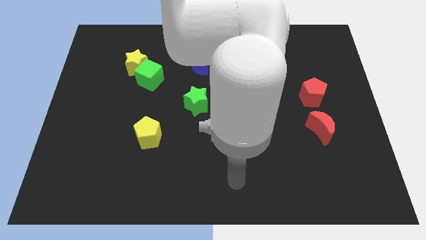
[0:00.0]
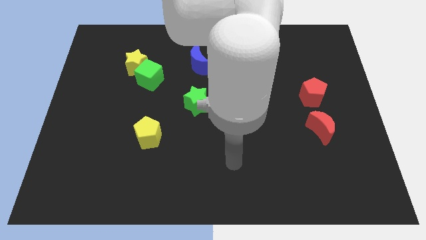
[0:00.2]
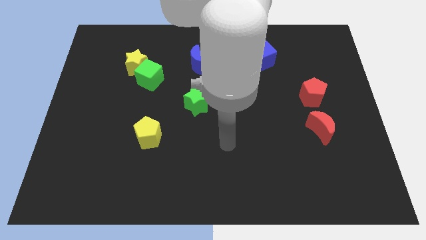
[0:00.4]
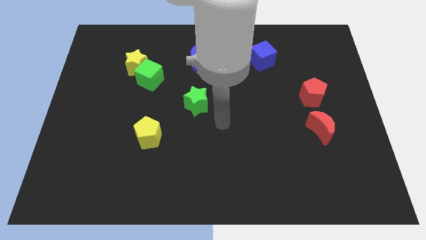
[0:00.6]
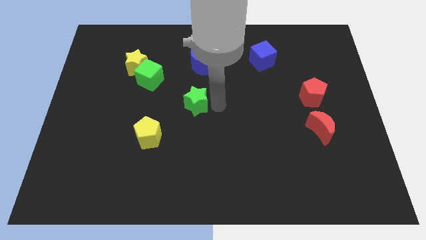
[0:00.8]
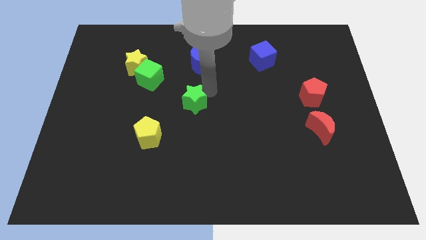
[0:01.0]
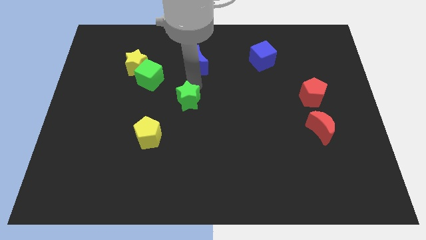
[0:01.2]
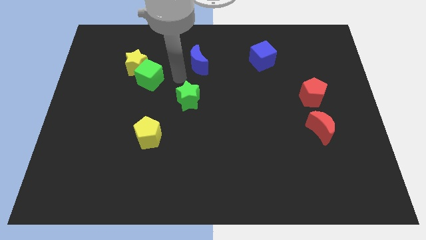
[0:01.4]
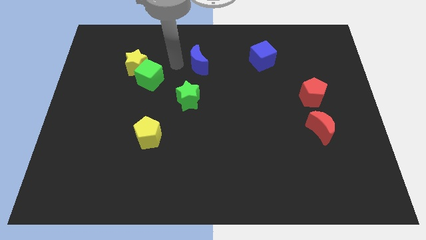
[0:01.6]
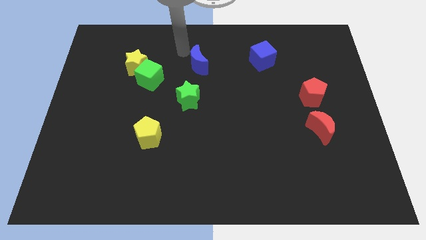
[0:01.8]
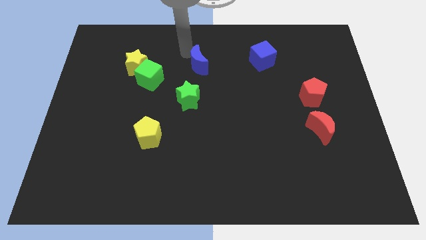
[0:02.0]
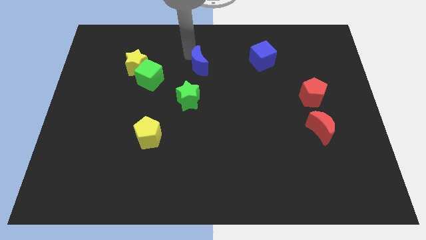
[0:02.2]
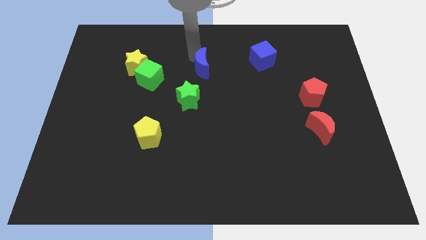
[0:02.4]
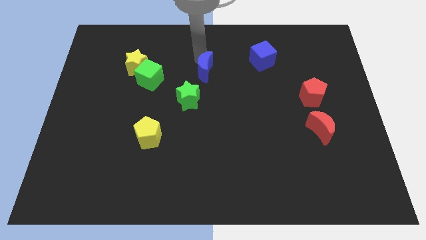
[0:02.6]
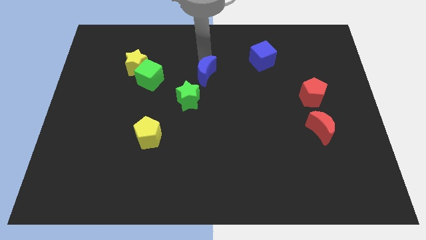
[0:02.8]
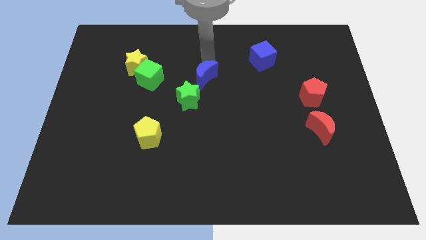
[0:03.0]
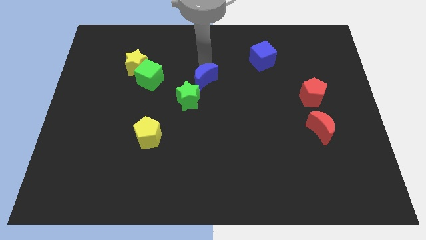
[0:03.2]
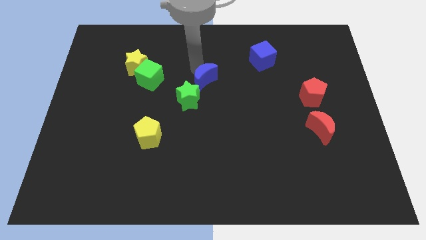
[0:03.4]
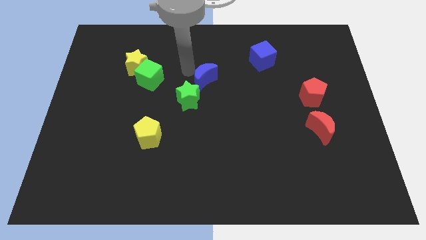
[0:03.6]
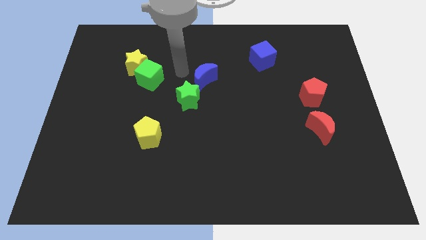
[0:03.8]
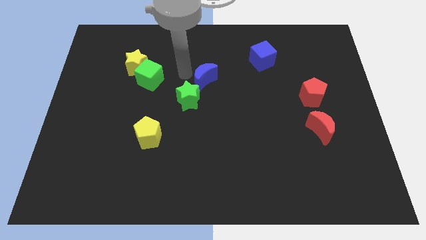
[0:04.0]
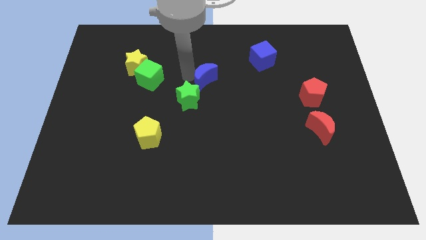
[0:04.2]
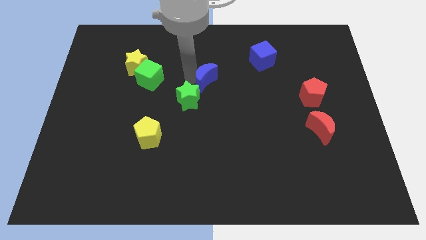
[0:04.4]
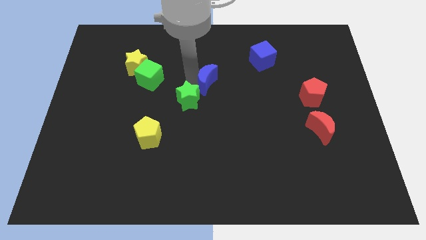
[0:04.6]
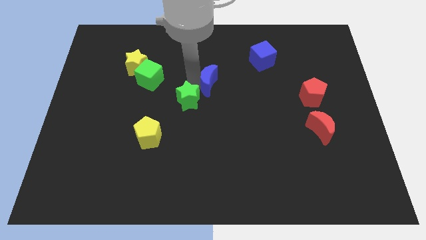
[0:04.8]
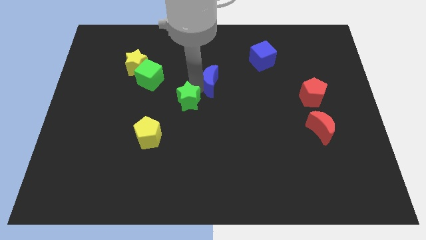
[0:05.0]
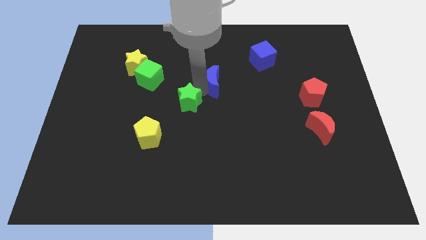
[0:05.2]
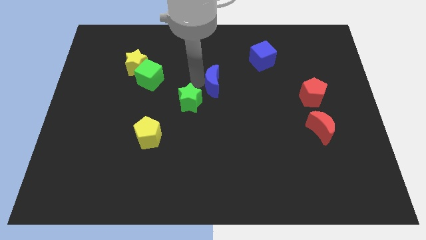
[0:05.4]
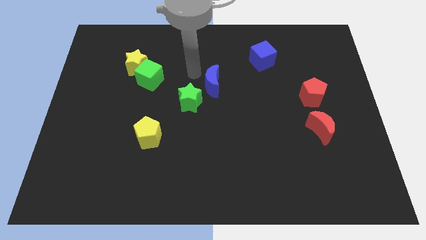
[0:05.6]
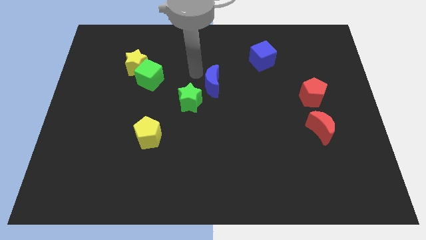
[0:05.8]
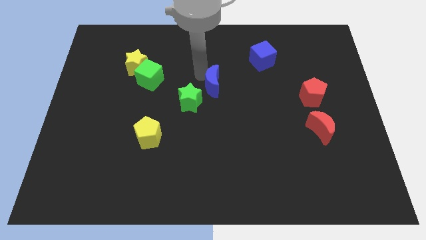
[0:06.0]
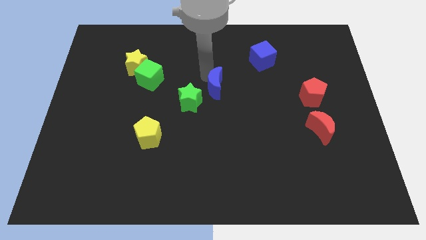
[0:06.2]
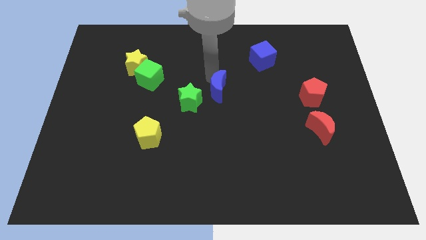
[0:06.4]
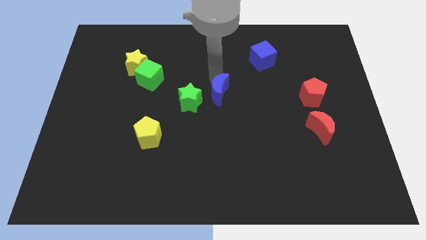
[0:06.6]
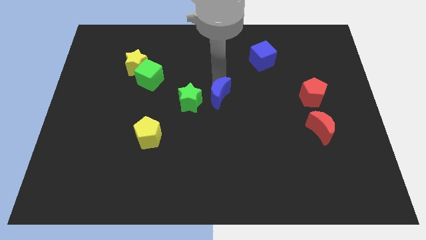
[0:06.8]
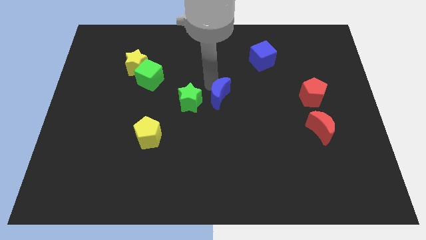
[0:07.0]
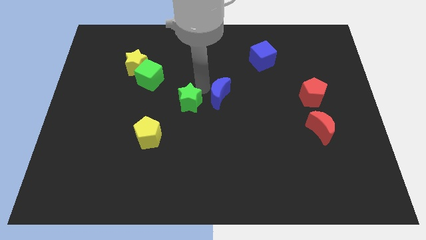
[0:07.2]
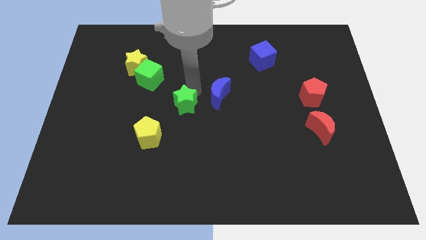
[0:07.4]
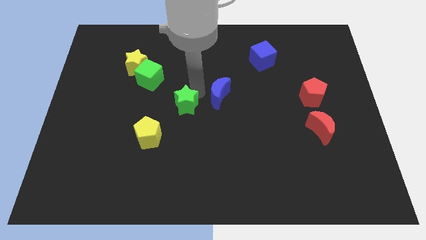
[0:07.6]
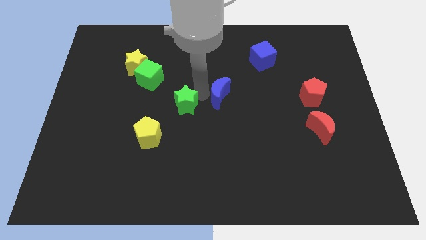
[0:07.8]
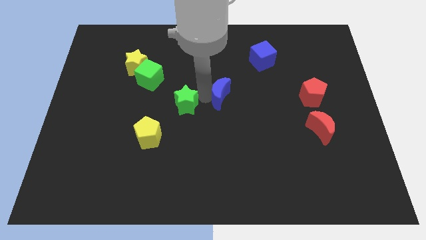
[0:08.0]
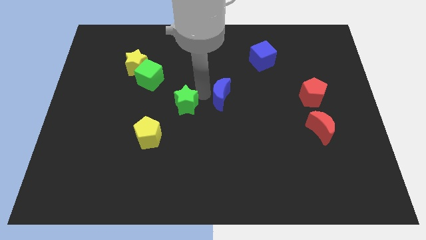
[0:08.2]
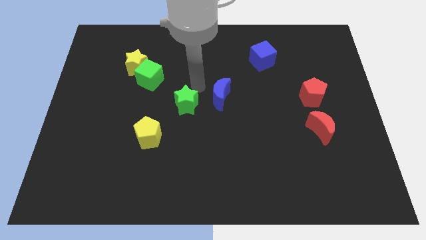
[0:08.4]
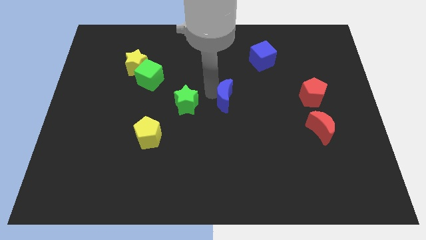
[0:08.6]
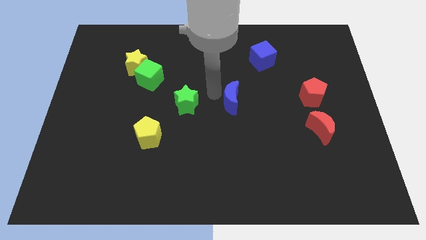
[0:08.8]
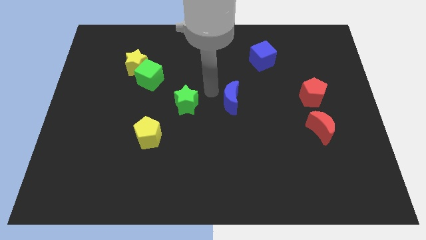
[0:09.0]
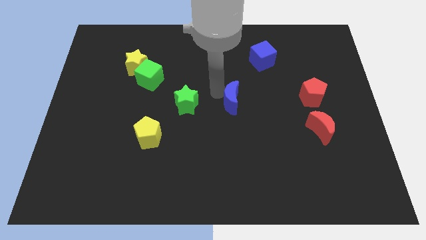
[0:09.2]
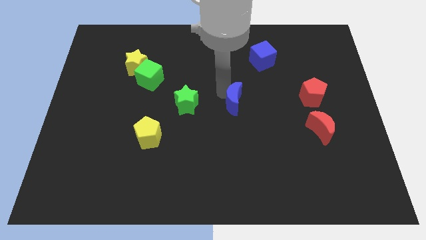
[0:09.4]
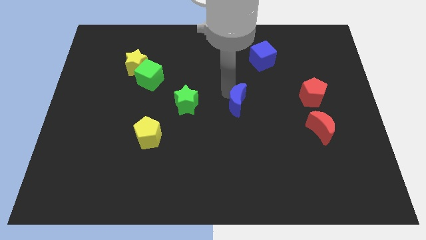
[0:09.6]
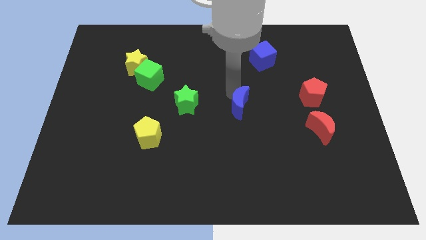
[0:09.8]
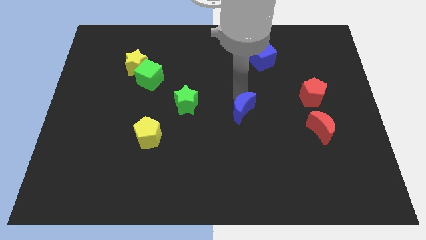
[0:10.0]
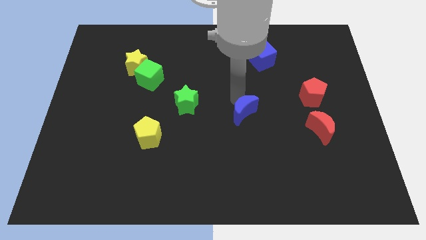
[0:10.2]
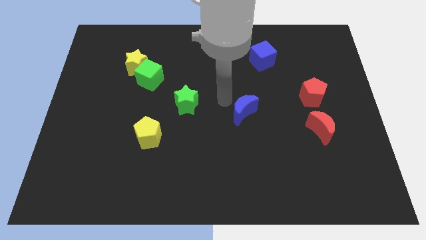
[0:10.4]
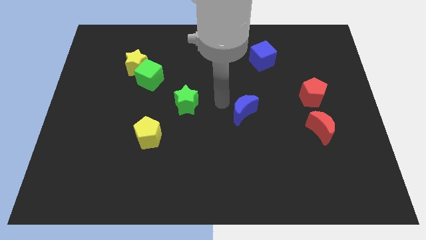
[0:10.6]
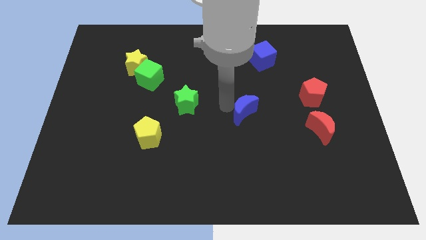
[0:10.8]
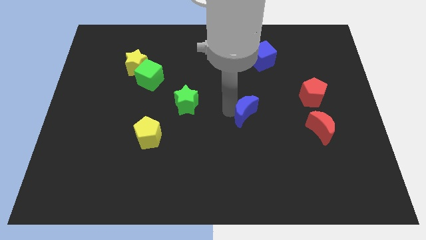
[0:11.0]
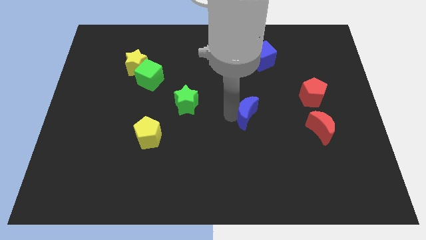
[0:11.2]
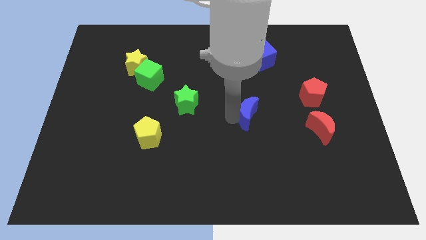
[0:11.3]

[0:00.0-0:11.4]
move the blue moon downwards and right diagonally

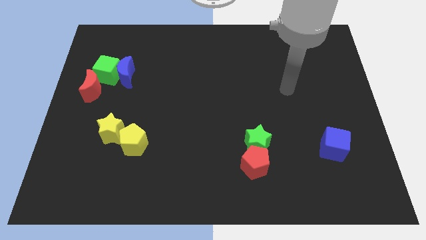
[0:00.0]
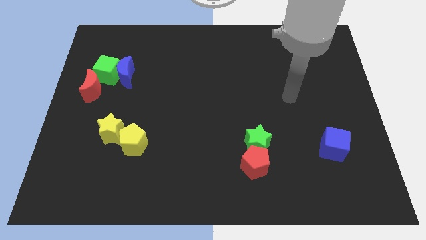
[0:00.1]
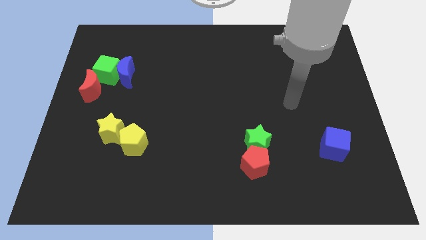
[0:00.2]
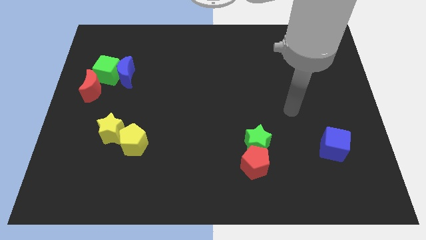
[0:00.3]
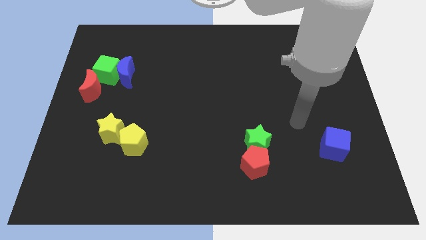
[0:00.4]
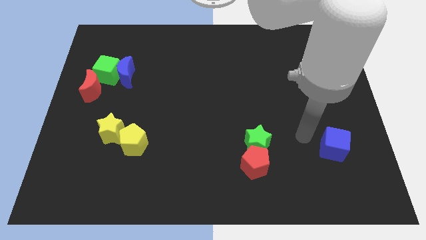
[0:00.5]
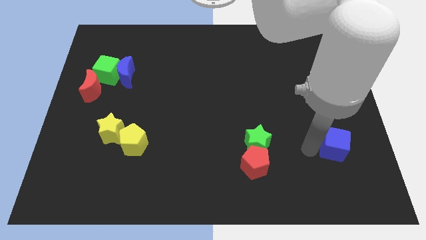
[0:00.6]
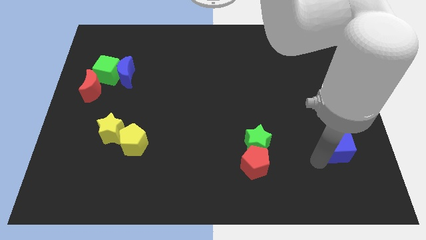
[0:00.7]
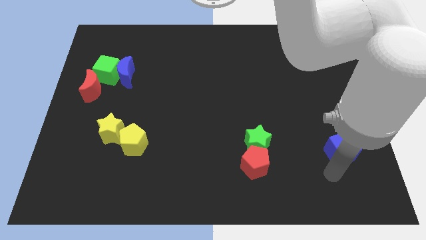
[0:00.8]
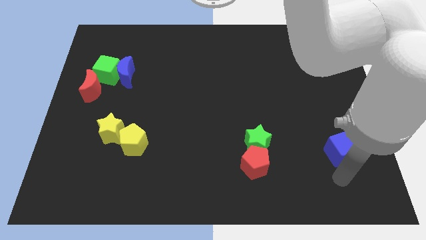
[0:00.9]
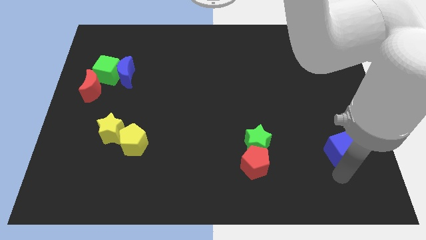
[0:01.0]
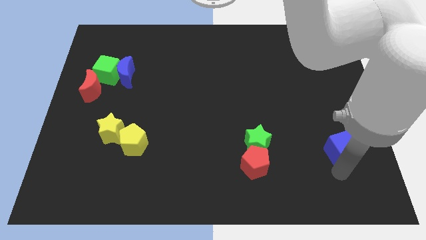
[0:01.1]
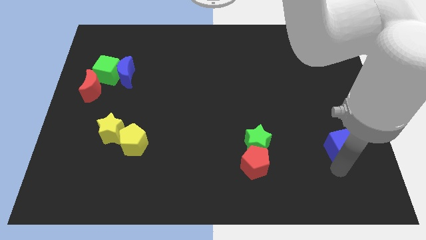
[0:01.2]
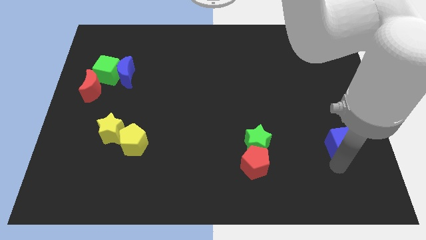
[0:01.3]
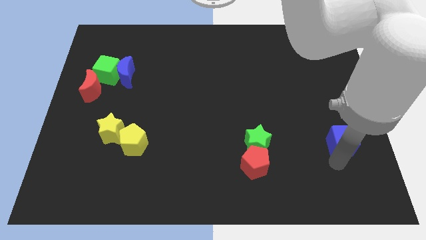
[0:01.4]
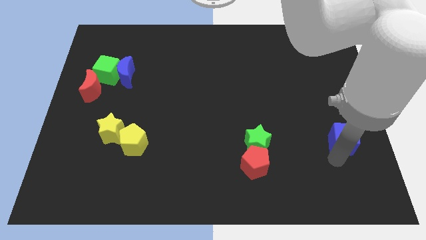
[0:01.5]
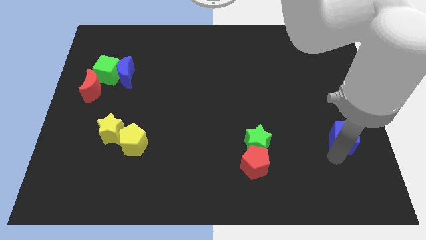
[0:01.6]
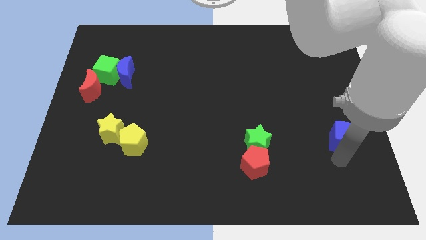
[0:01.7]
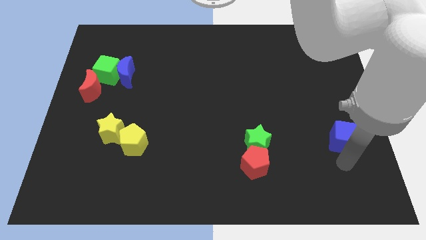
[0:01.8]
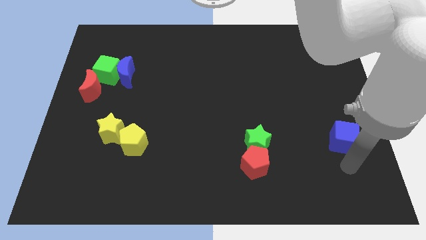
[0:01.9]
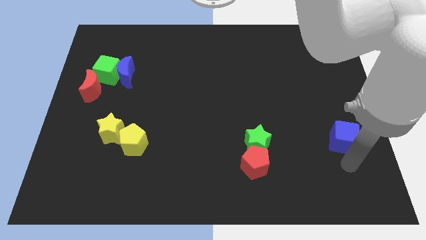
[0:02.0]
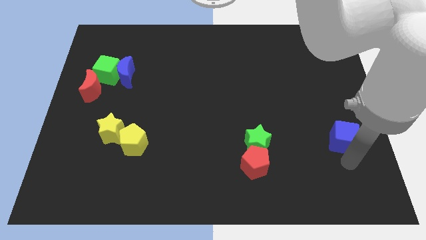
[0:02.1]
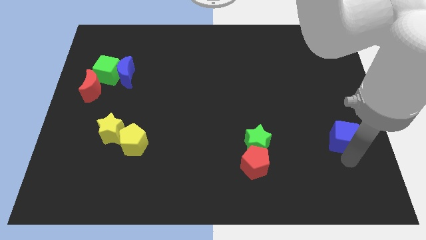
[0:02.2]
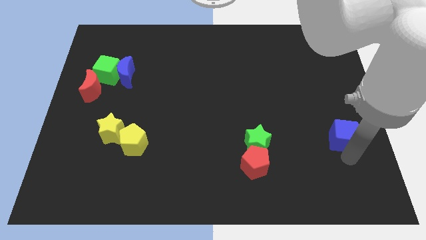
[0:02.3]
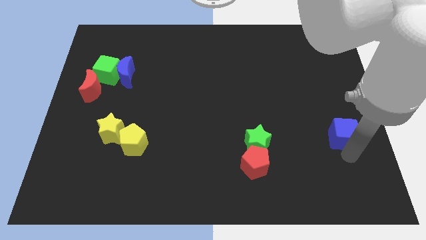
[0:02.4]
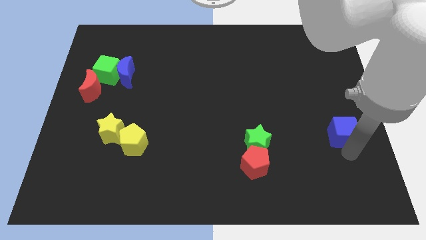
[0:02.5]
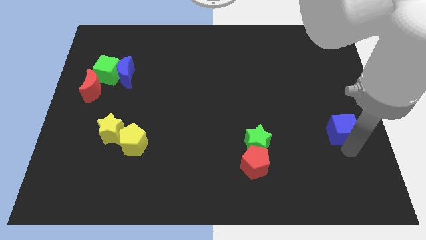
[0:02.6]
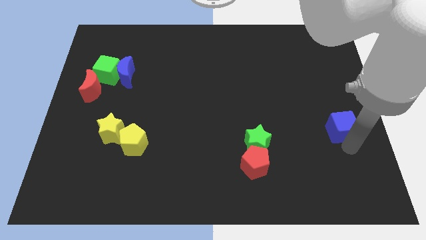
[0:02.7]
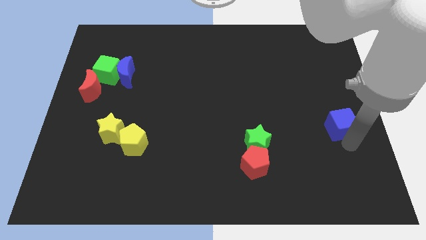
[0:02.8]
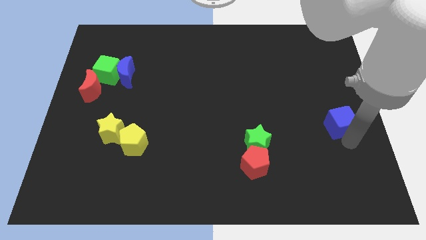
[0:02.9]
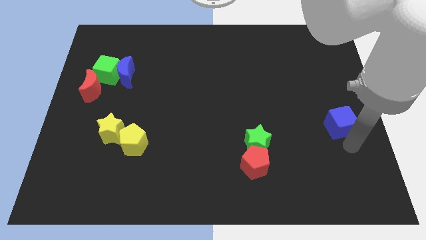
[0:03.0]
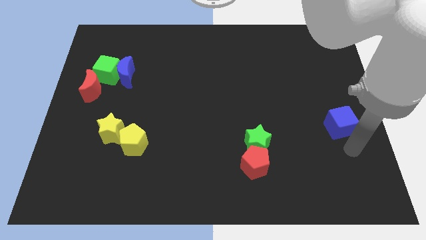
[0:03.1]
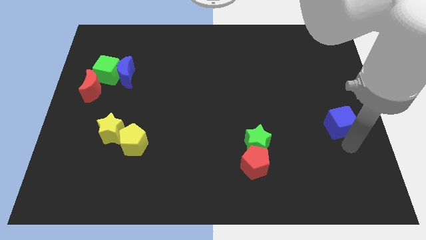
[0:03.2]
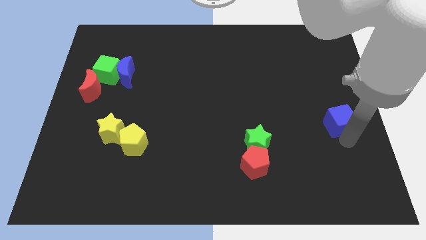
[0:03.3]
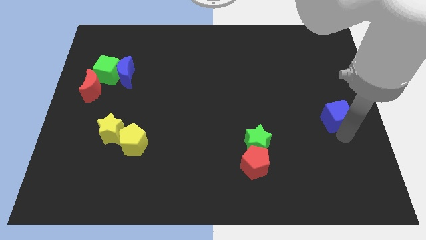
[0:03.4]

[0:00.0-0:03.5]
push the blue cube upwards a bit
